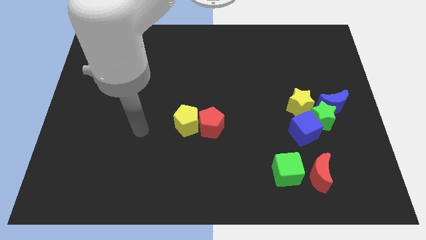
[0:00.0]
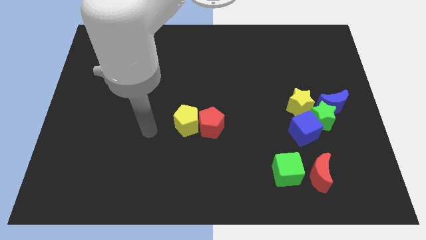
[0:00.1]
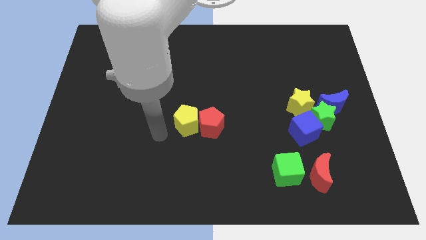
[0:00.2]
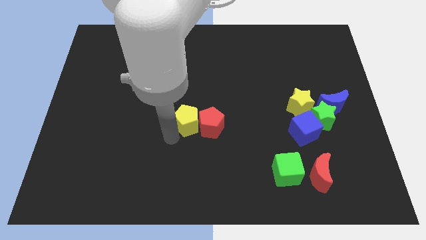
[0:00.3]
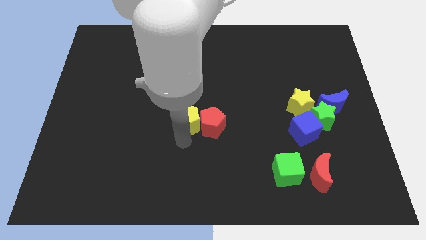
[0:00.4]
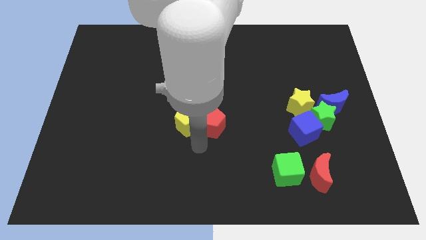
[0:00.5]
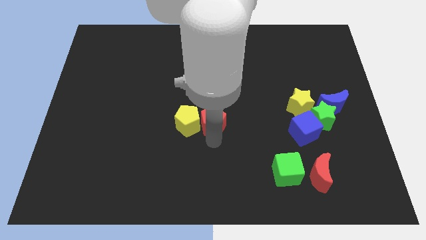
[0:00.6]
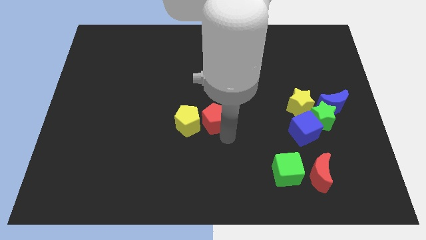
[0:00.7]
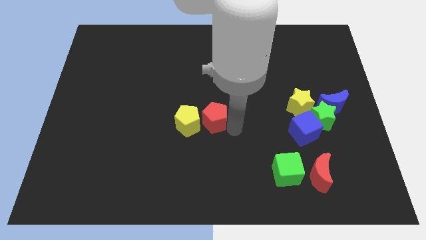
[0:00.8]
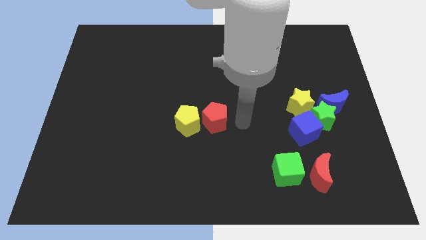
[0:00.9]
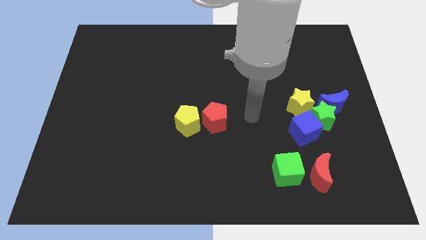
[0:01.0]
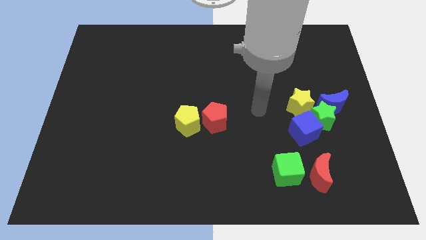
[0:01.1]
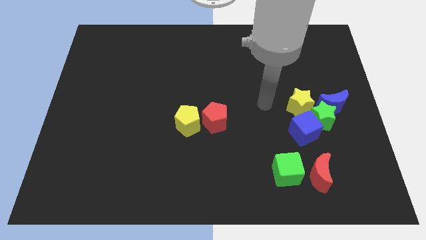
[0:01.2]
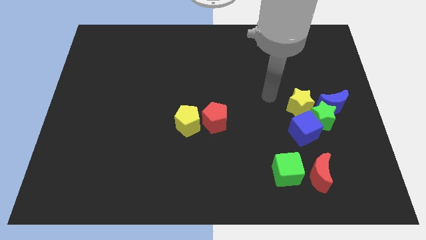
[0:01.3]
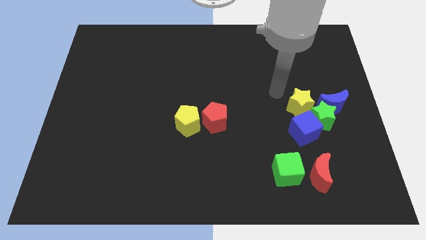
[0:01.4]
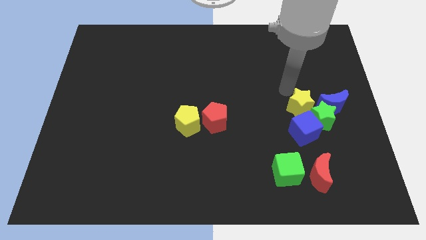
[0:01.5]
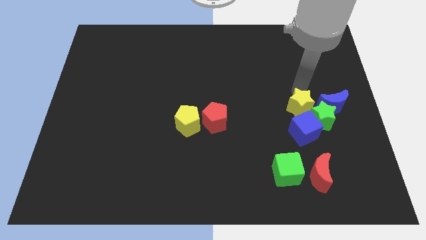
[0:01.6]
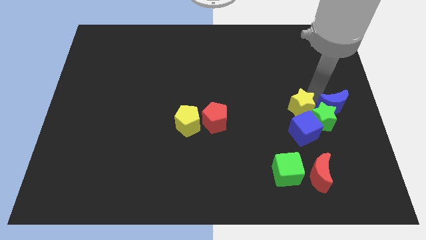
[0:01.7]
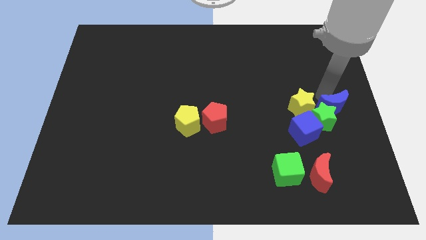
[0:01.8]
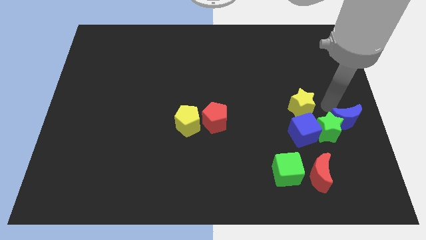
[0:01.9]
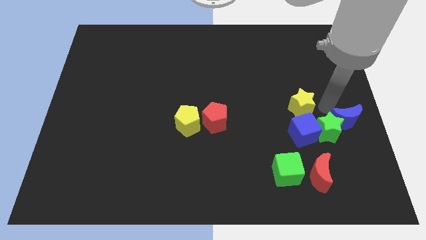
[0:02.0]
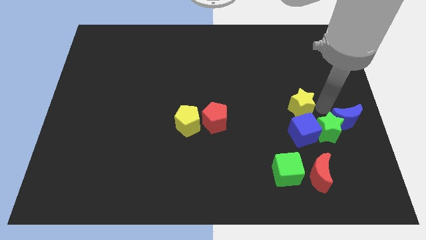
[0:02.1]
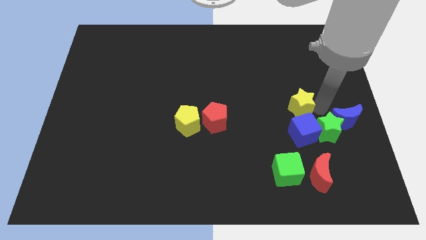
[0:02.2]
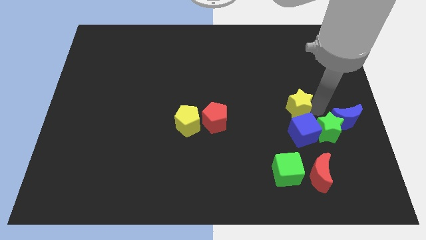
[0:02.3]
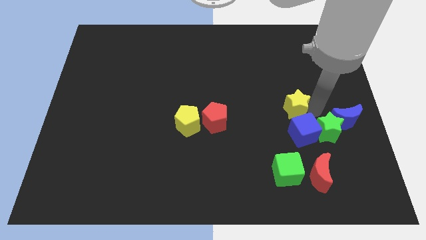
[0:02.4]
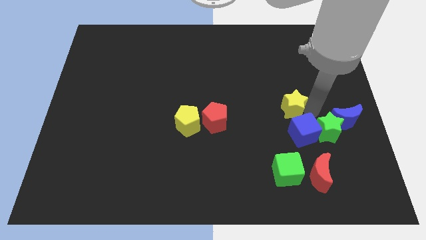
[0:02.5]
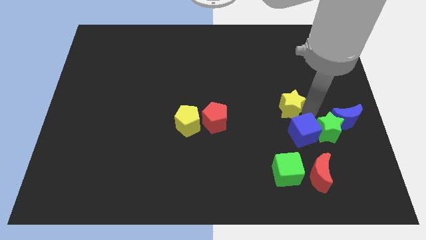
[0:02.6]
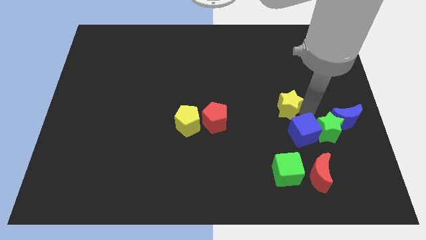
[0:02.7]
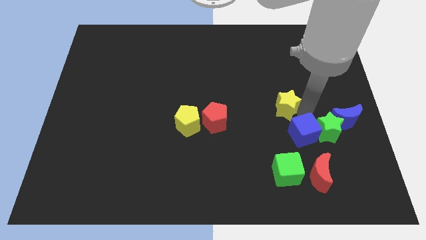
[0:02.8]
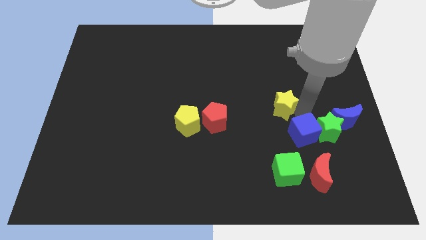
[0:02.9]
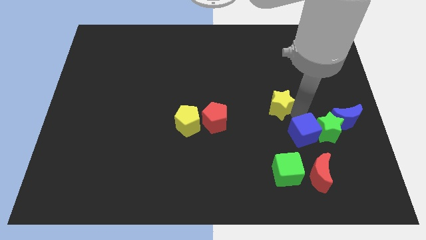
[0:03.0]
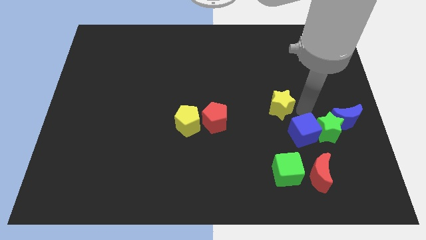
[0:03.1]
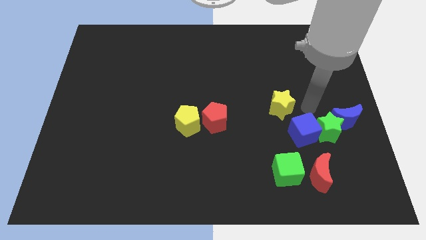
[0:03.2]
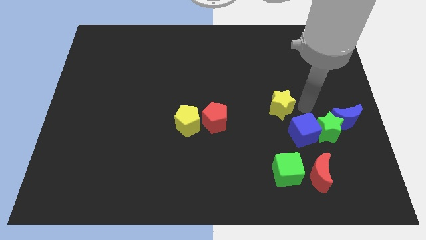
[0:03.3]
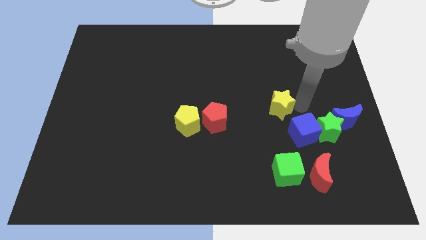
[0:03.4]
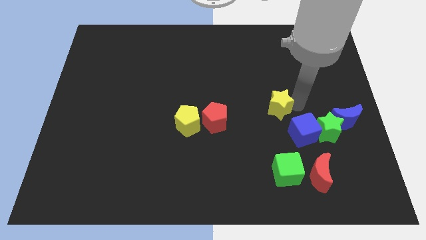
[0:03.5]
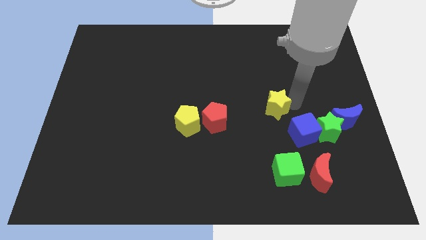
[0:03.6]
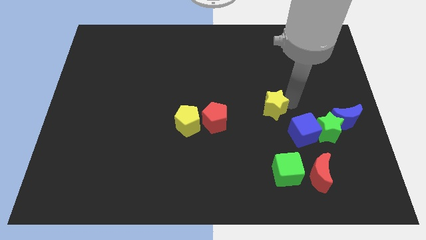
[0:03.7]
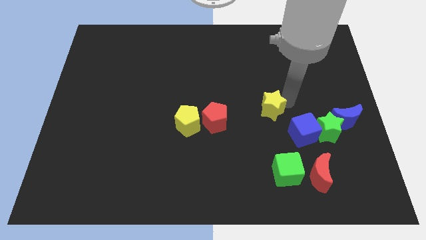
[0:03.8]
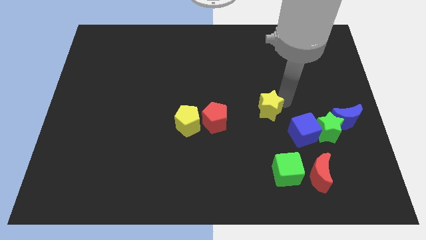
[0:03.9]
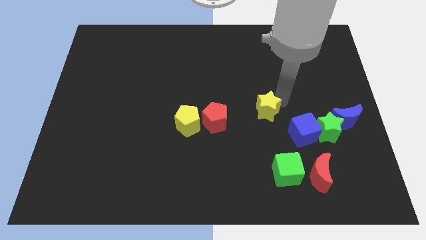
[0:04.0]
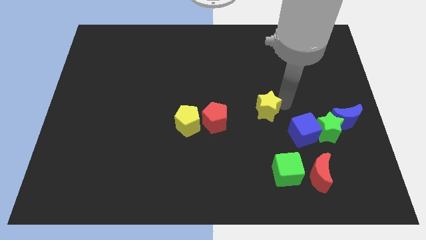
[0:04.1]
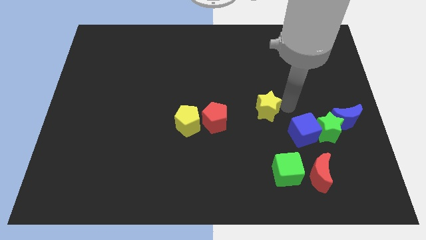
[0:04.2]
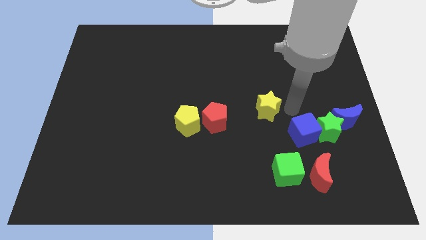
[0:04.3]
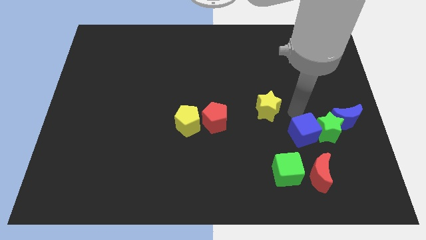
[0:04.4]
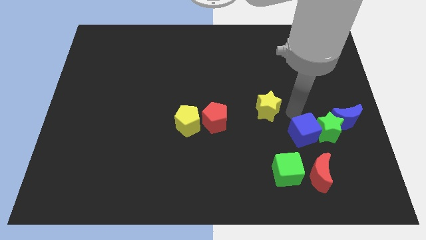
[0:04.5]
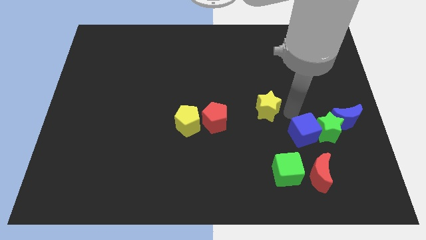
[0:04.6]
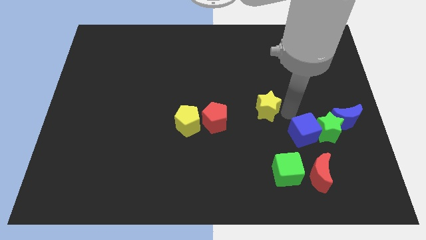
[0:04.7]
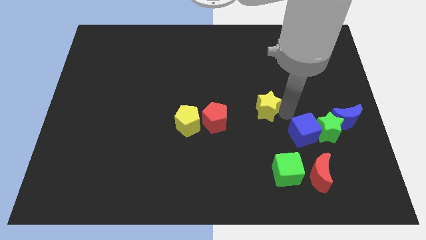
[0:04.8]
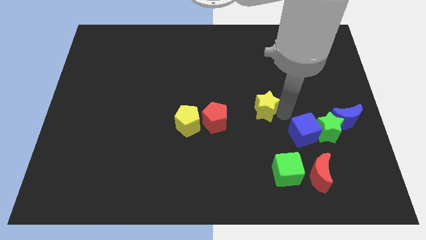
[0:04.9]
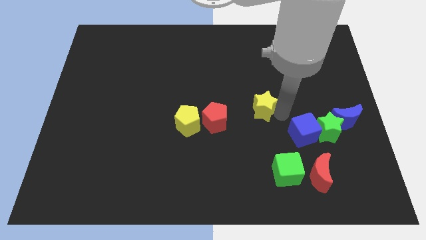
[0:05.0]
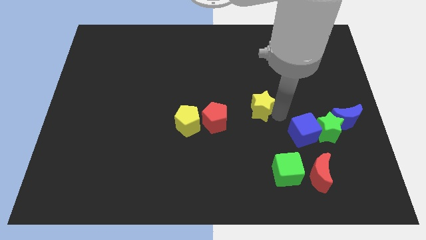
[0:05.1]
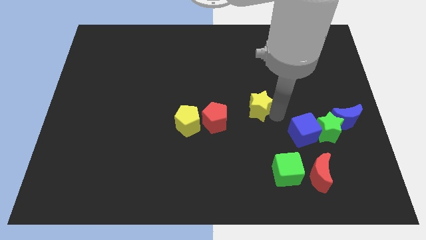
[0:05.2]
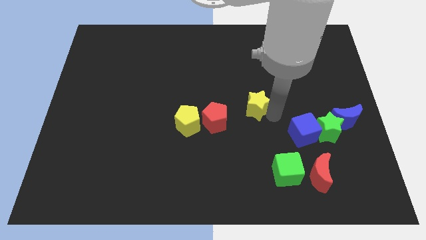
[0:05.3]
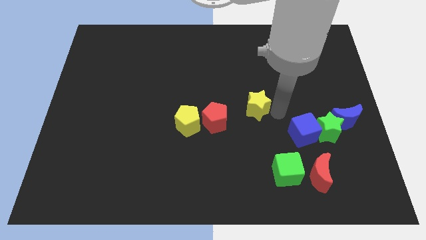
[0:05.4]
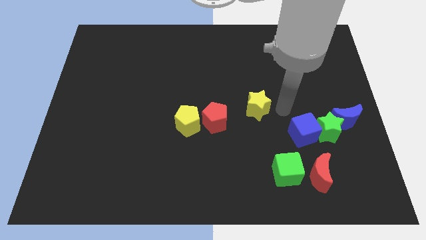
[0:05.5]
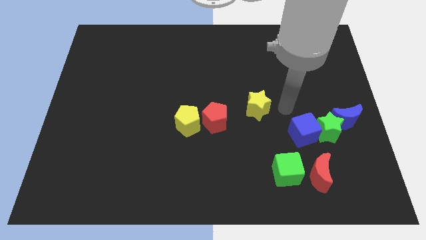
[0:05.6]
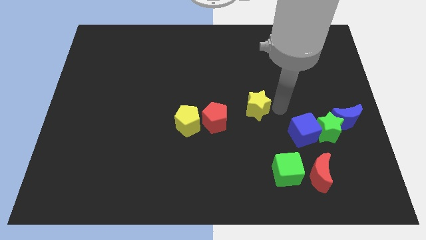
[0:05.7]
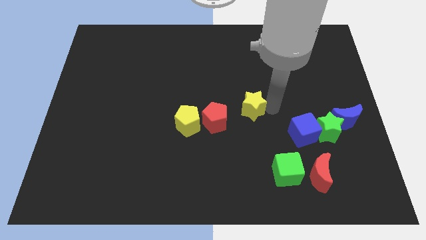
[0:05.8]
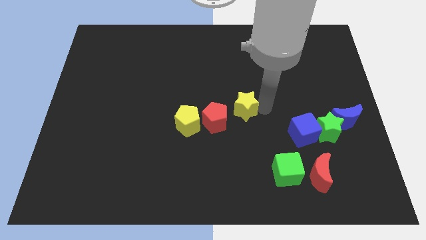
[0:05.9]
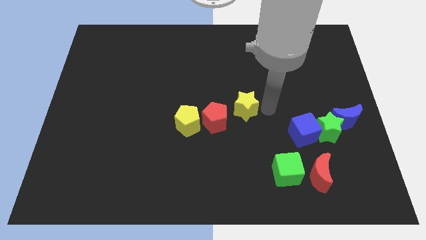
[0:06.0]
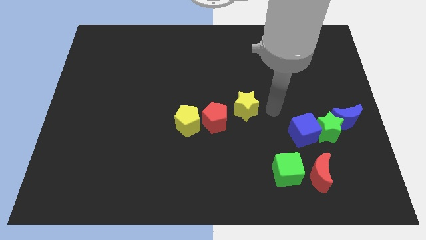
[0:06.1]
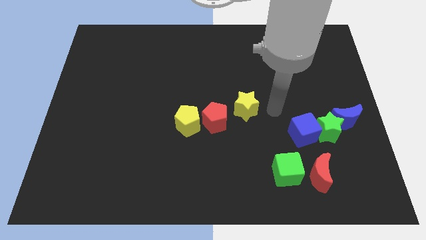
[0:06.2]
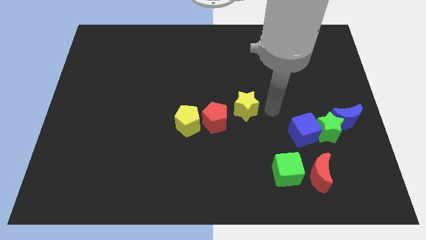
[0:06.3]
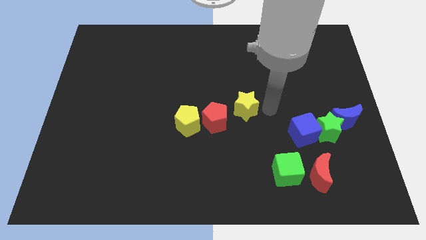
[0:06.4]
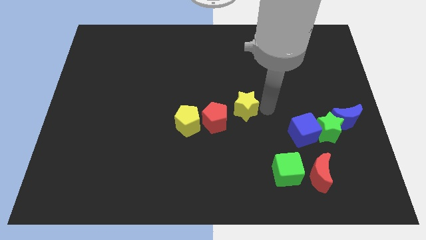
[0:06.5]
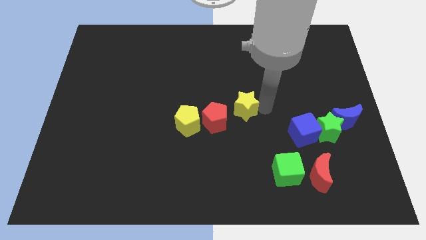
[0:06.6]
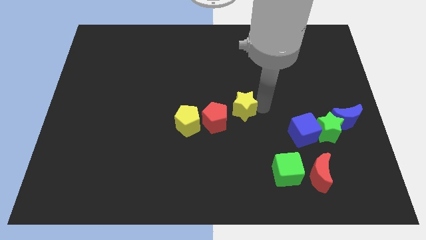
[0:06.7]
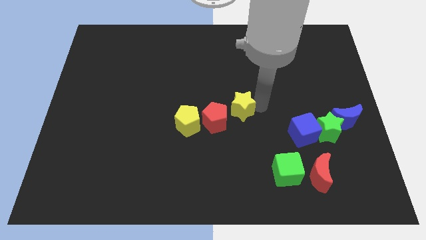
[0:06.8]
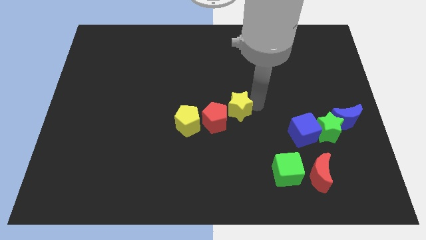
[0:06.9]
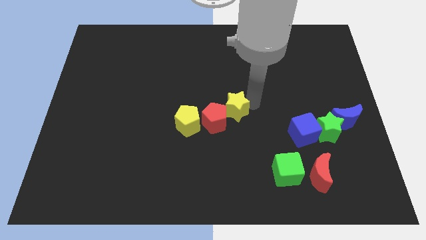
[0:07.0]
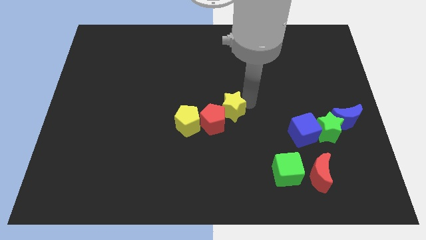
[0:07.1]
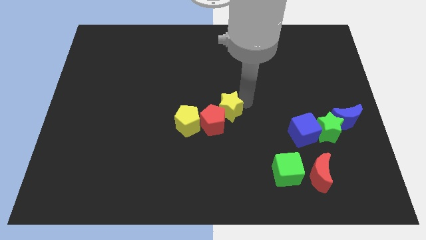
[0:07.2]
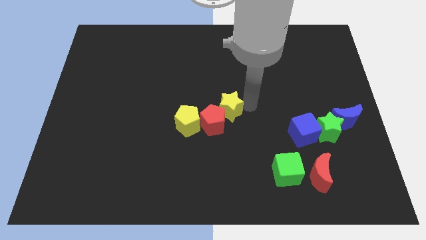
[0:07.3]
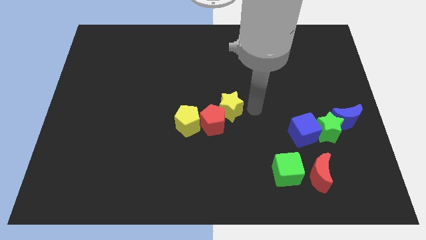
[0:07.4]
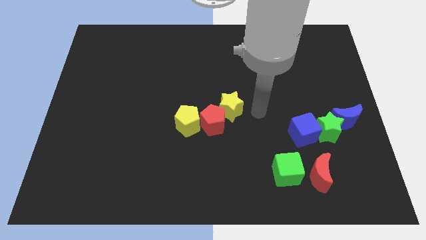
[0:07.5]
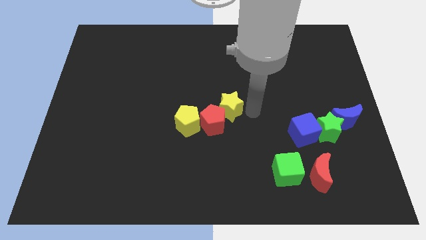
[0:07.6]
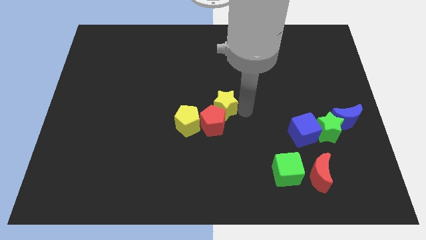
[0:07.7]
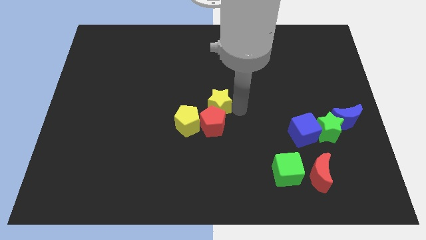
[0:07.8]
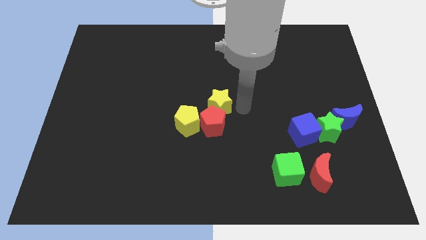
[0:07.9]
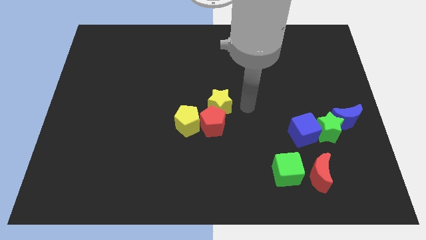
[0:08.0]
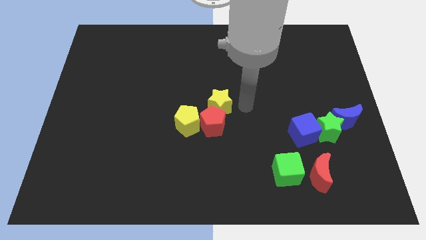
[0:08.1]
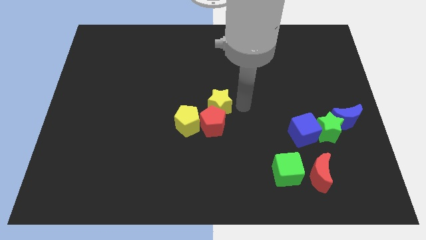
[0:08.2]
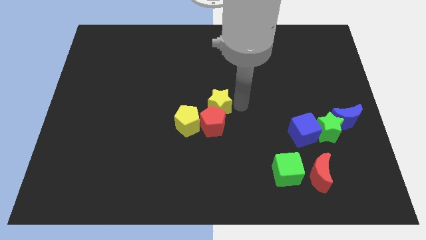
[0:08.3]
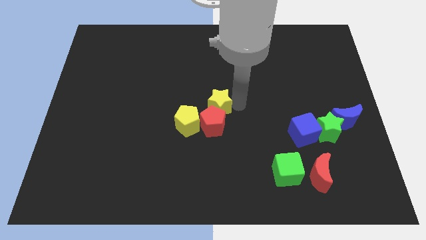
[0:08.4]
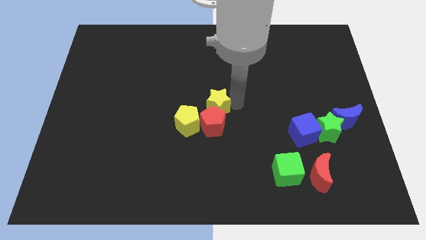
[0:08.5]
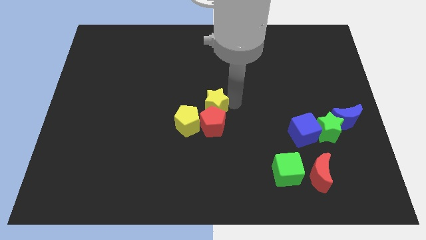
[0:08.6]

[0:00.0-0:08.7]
move the yellow star left
